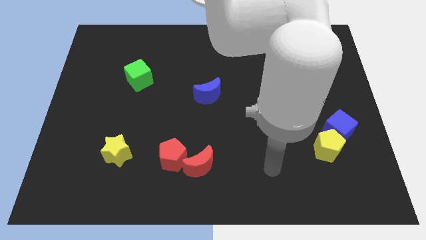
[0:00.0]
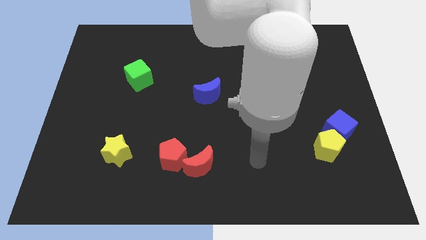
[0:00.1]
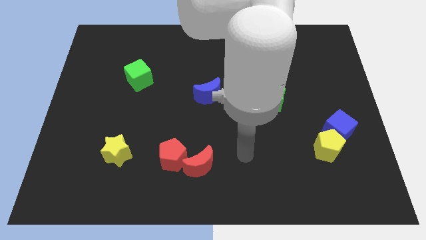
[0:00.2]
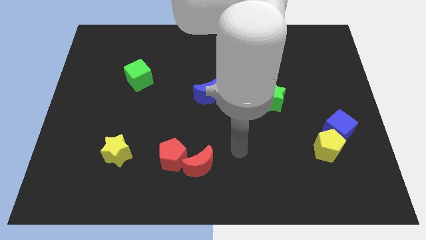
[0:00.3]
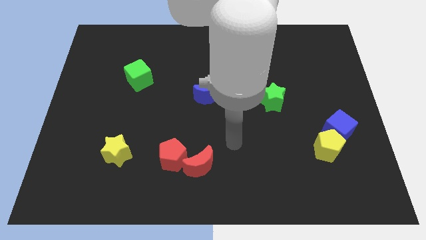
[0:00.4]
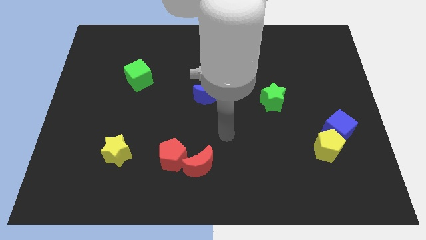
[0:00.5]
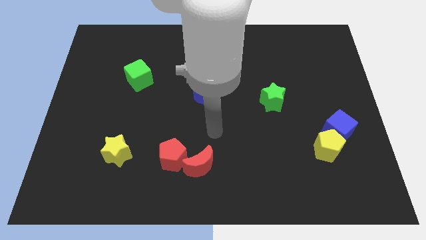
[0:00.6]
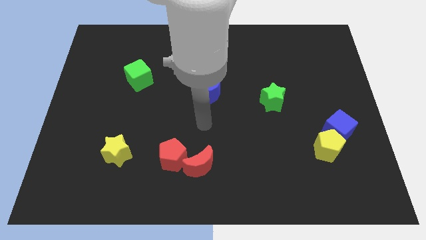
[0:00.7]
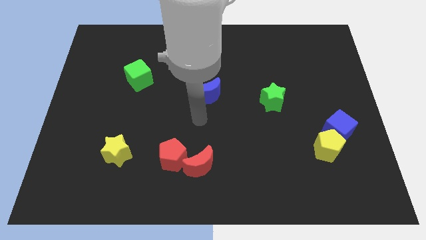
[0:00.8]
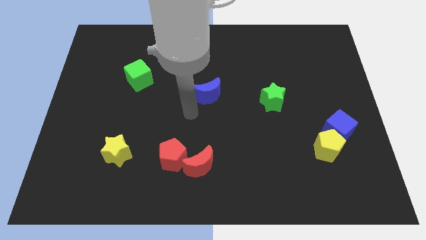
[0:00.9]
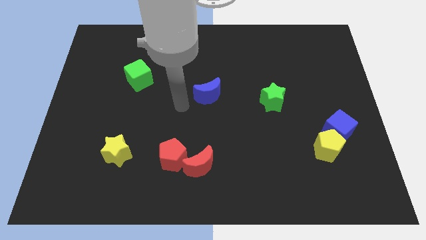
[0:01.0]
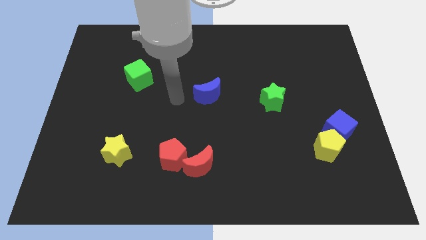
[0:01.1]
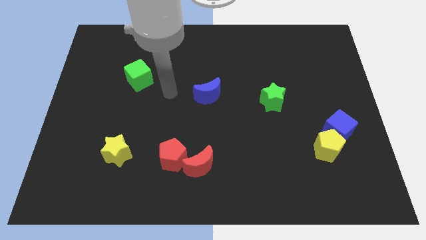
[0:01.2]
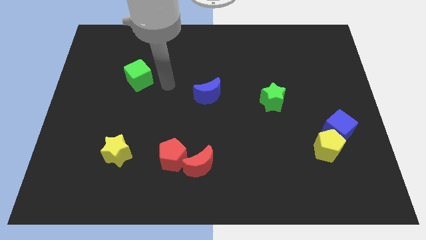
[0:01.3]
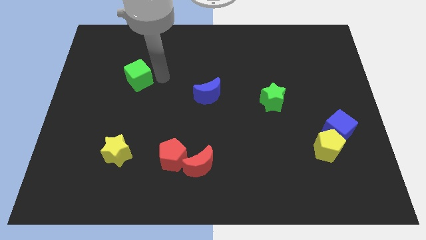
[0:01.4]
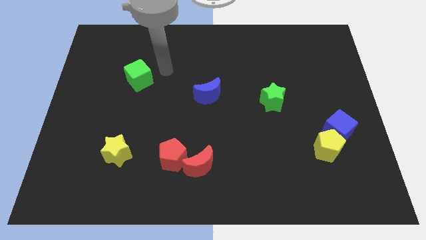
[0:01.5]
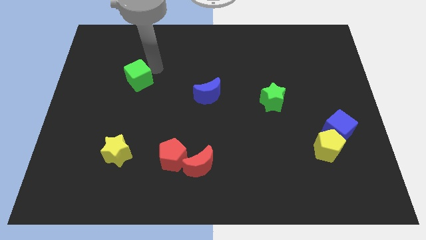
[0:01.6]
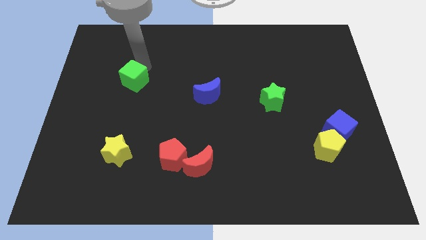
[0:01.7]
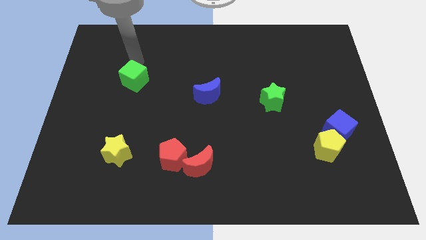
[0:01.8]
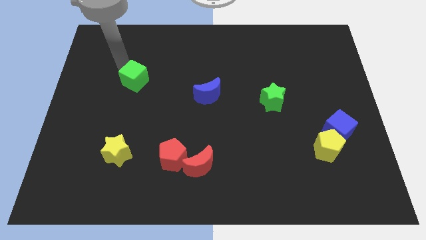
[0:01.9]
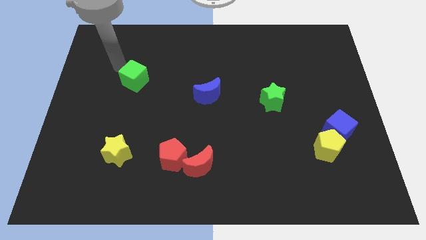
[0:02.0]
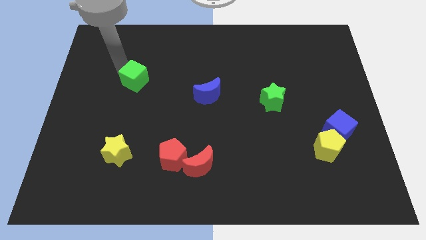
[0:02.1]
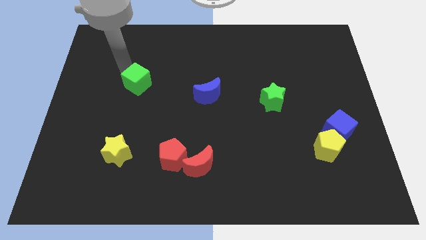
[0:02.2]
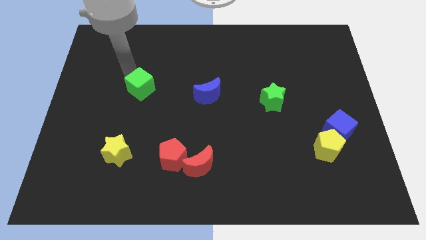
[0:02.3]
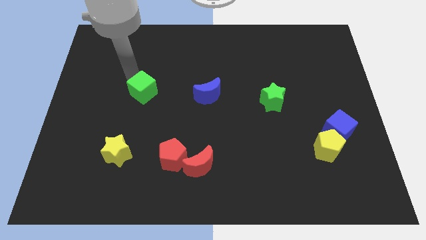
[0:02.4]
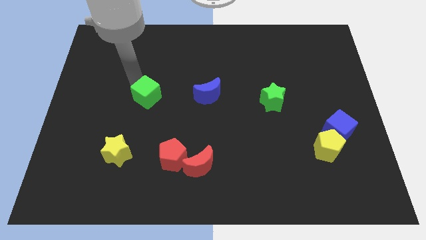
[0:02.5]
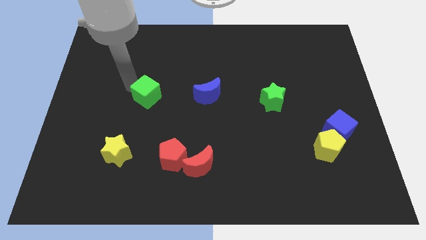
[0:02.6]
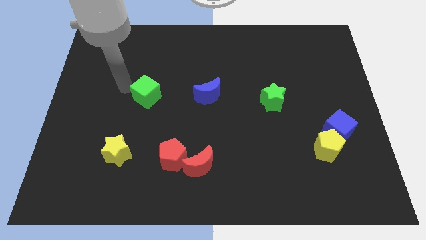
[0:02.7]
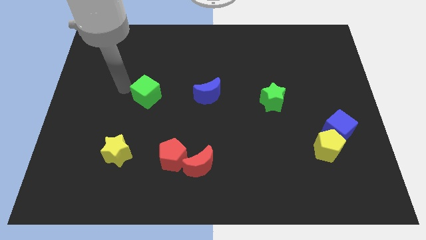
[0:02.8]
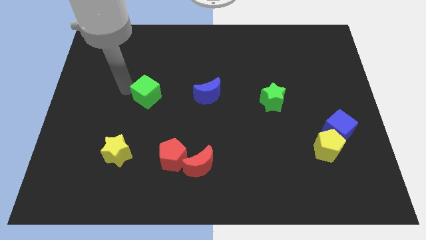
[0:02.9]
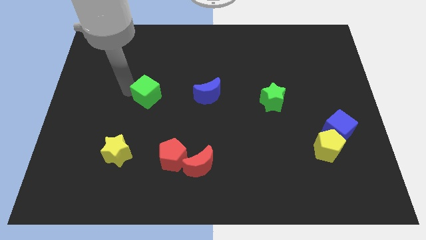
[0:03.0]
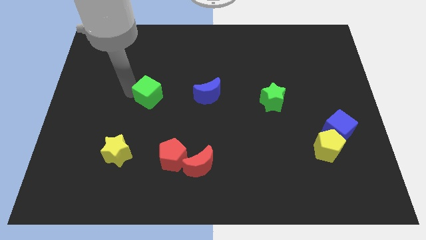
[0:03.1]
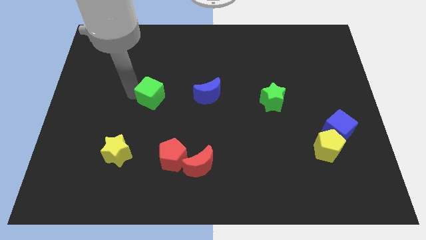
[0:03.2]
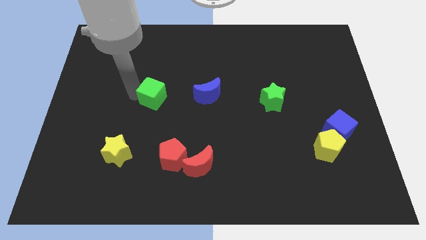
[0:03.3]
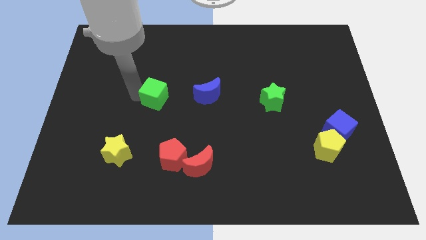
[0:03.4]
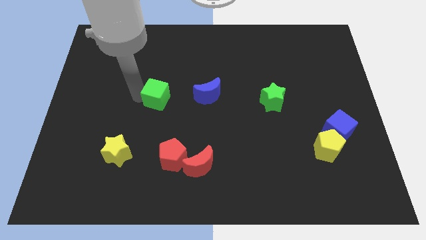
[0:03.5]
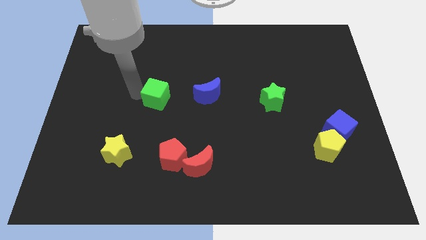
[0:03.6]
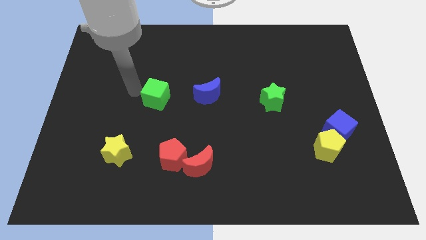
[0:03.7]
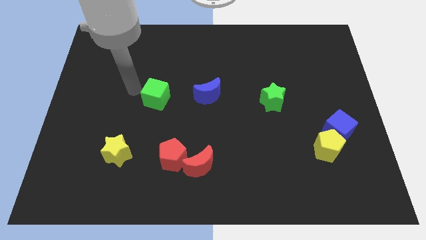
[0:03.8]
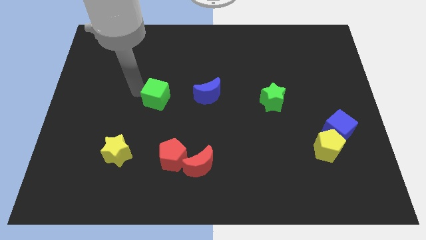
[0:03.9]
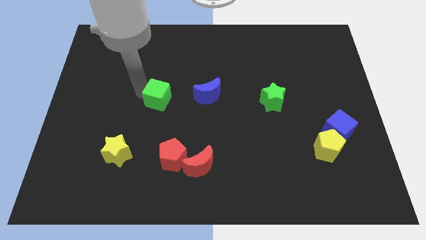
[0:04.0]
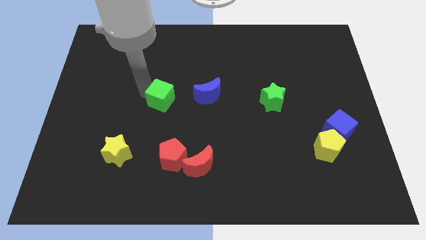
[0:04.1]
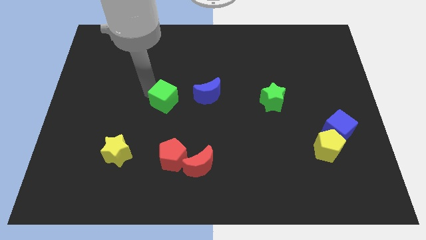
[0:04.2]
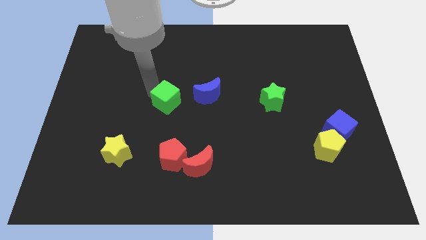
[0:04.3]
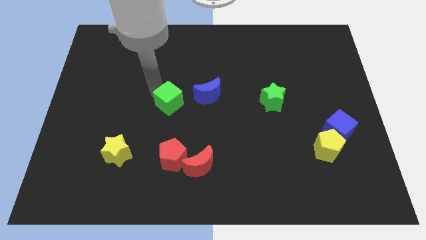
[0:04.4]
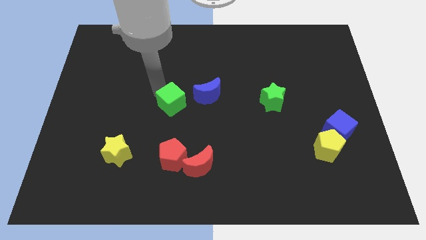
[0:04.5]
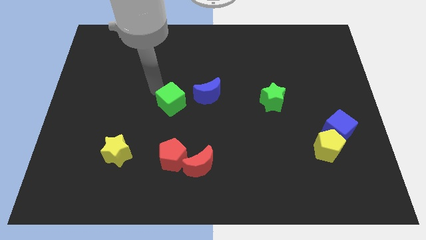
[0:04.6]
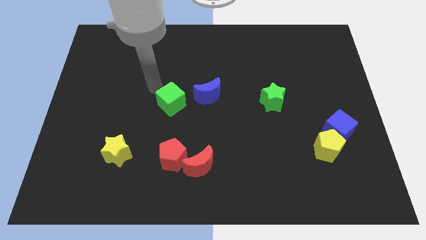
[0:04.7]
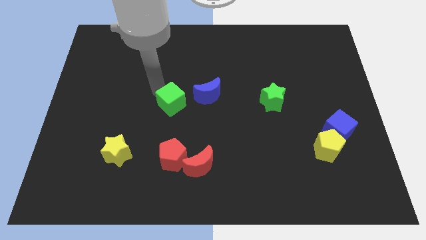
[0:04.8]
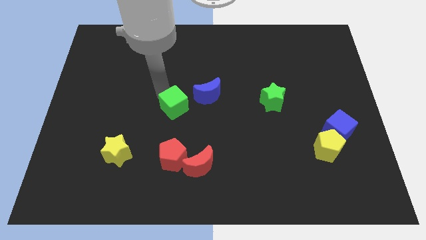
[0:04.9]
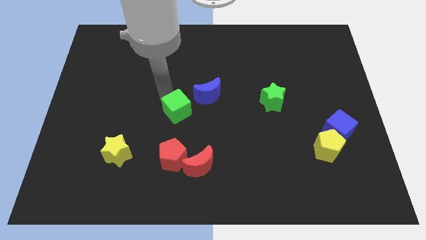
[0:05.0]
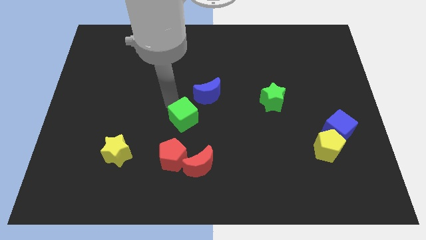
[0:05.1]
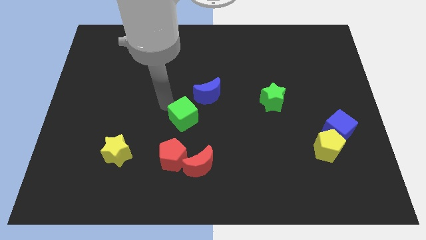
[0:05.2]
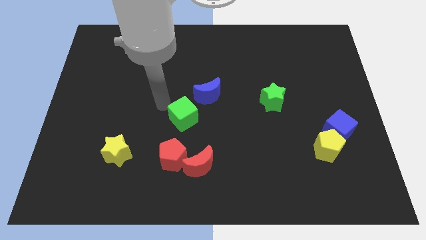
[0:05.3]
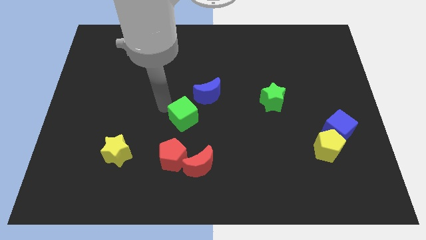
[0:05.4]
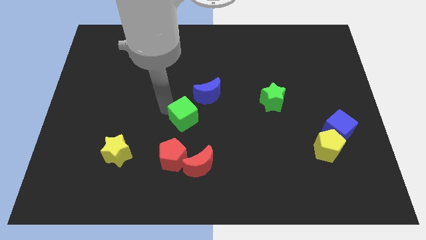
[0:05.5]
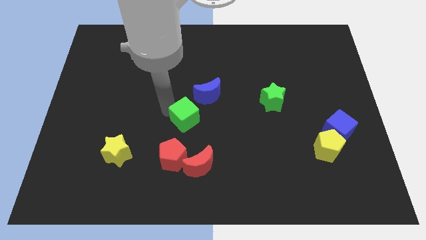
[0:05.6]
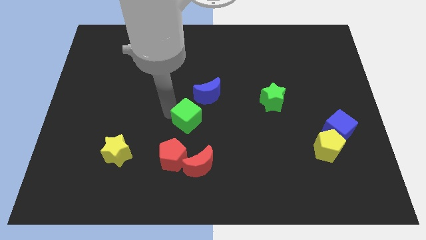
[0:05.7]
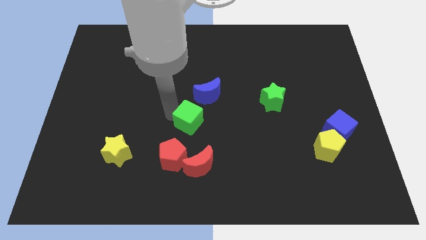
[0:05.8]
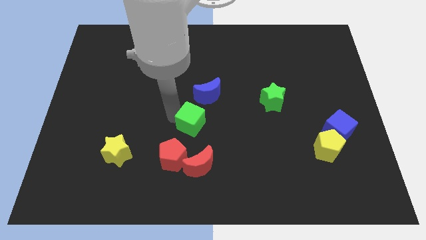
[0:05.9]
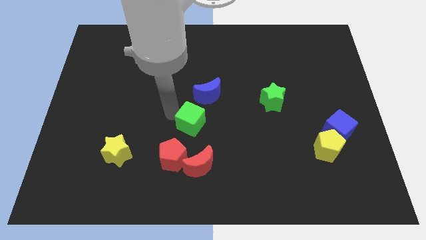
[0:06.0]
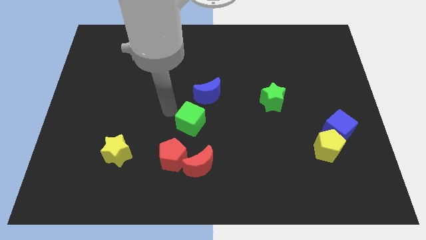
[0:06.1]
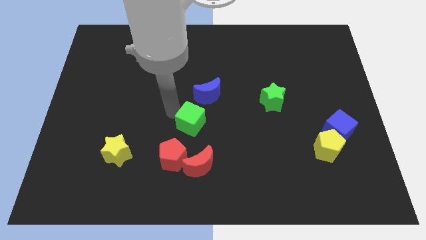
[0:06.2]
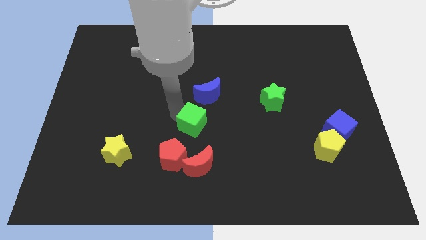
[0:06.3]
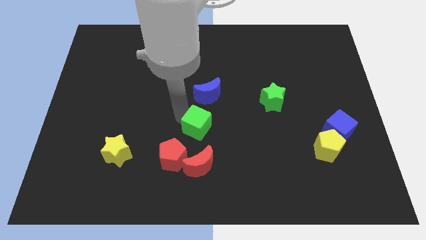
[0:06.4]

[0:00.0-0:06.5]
move the green cube downwards and right

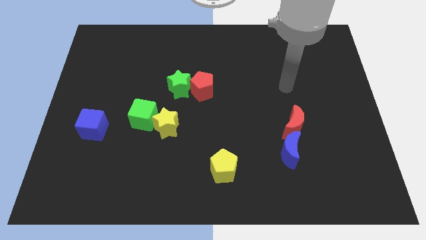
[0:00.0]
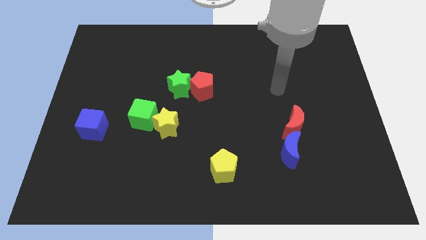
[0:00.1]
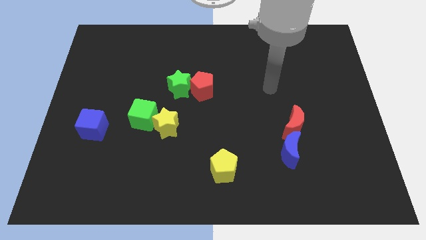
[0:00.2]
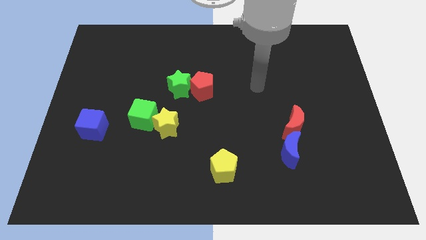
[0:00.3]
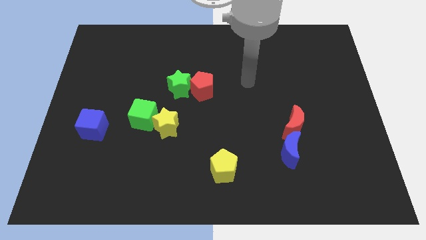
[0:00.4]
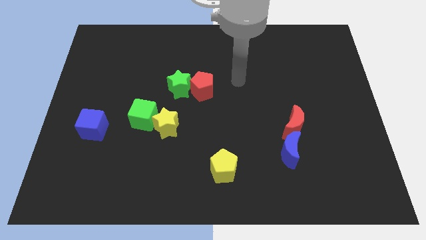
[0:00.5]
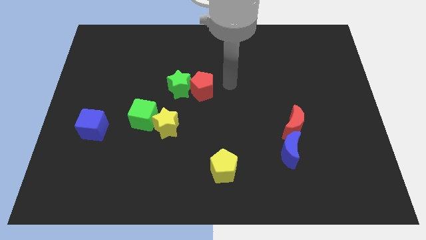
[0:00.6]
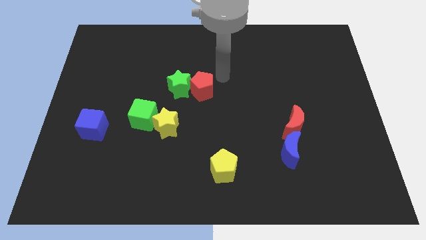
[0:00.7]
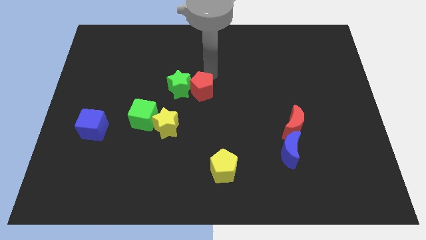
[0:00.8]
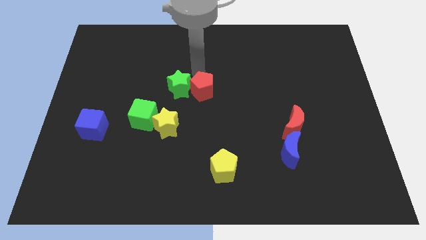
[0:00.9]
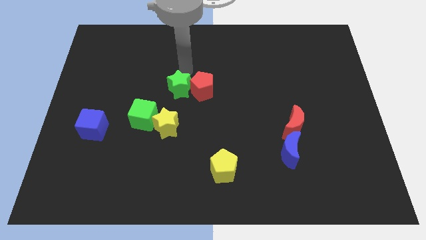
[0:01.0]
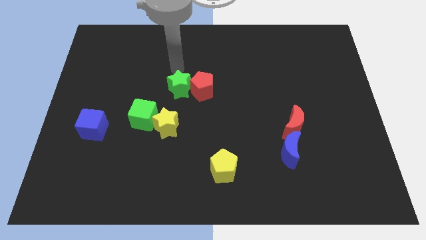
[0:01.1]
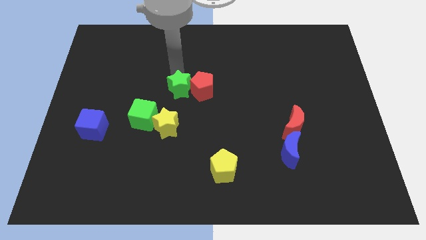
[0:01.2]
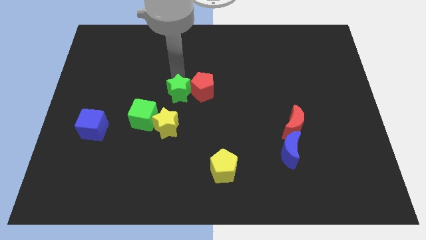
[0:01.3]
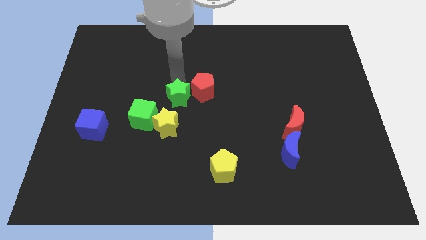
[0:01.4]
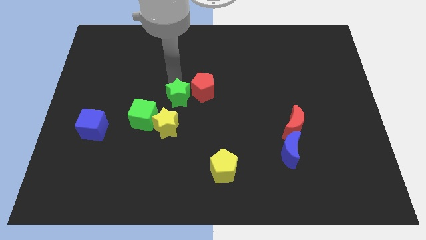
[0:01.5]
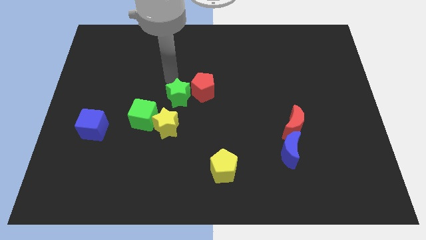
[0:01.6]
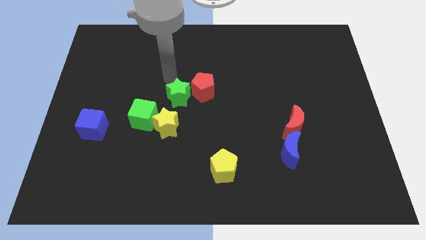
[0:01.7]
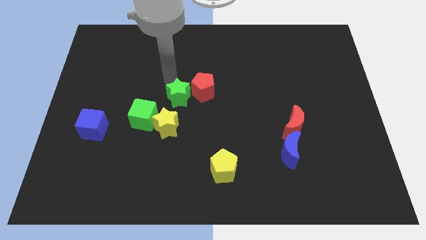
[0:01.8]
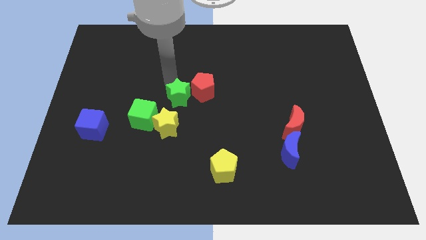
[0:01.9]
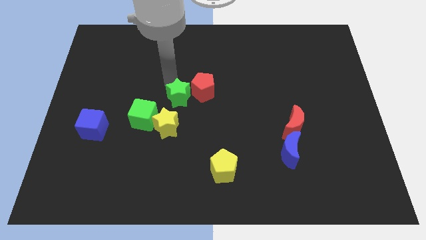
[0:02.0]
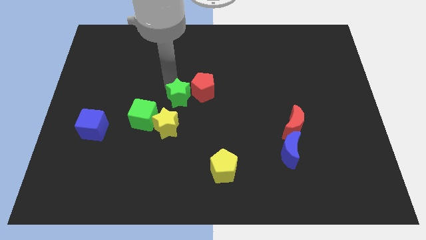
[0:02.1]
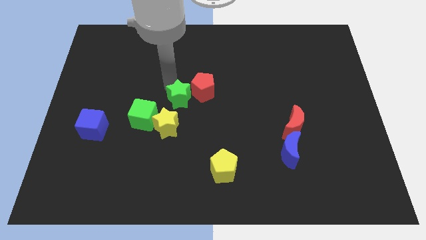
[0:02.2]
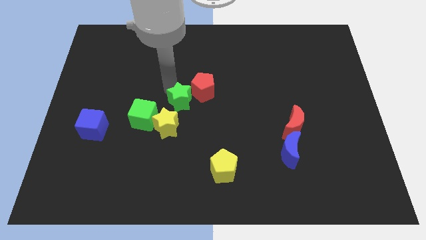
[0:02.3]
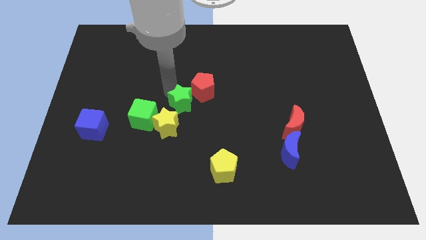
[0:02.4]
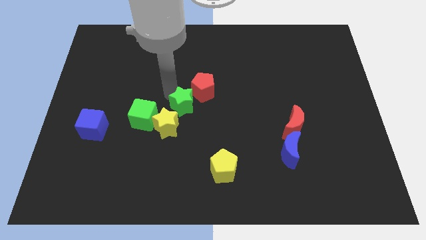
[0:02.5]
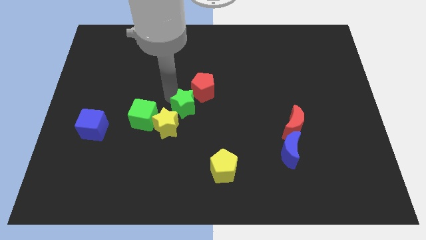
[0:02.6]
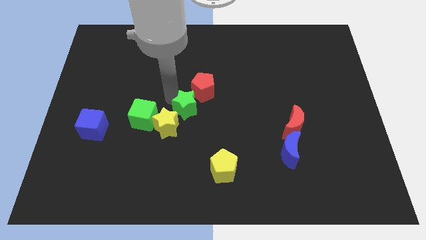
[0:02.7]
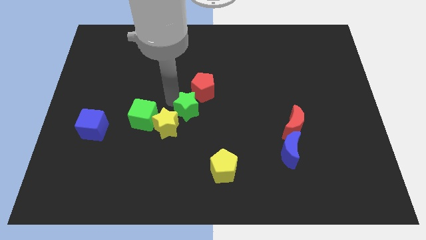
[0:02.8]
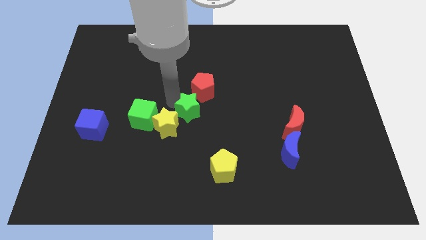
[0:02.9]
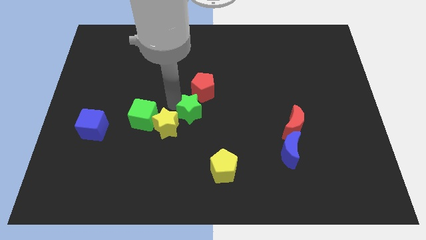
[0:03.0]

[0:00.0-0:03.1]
push the green star downwards and to the right slightly
